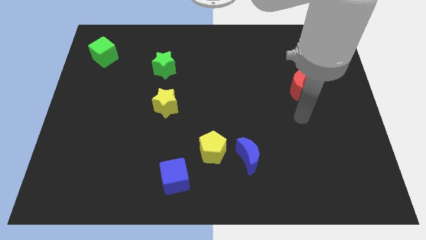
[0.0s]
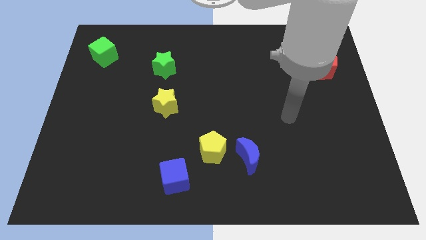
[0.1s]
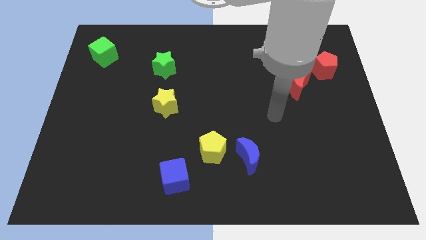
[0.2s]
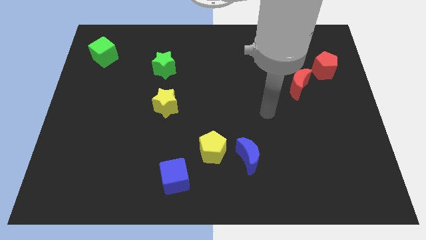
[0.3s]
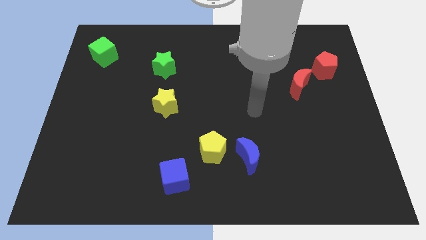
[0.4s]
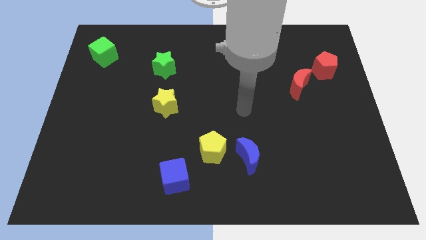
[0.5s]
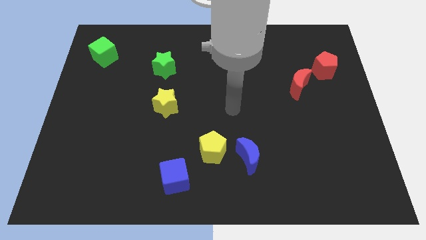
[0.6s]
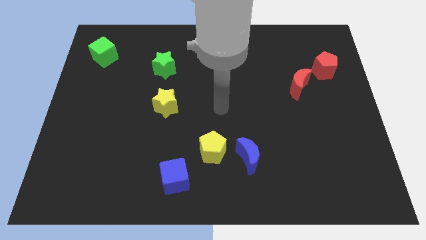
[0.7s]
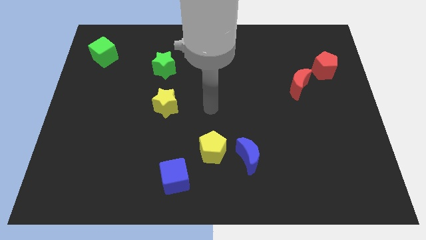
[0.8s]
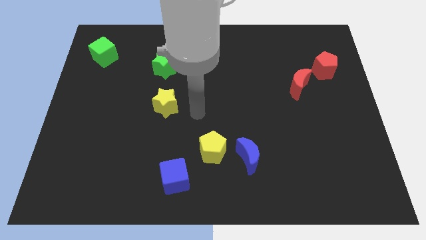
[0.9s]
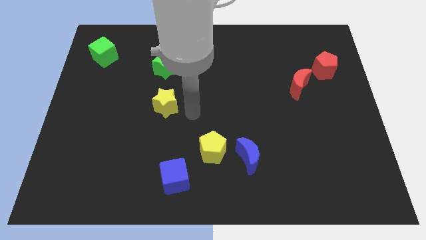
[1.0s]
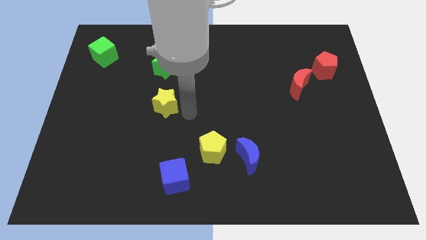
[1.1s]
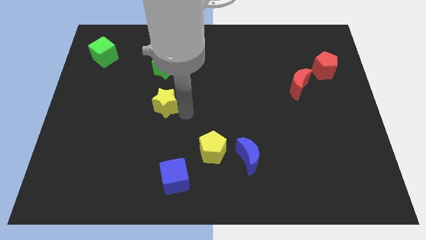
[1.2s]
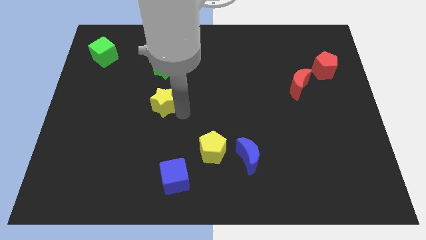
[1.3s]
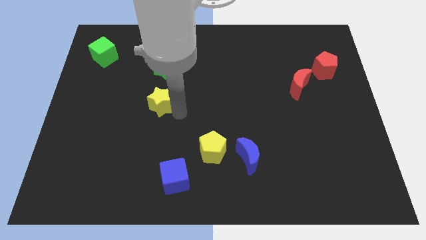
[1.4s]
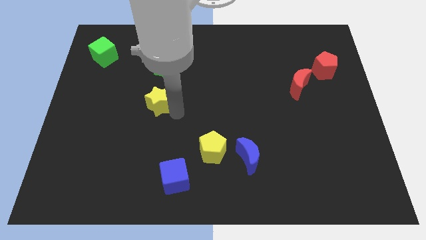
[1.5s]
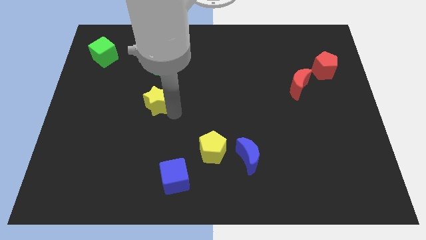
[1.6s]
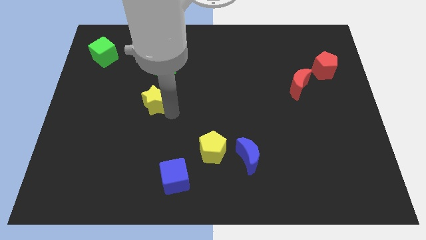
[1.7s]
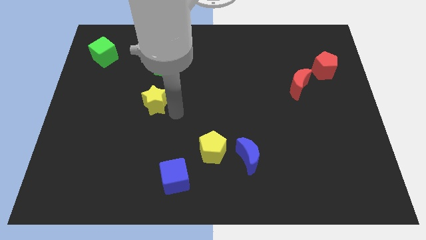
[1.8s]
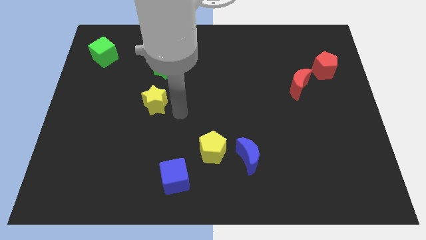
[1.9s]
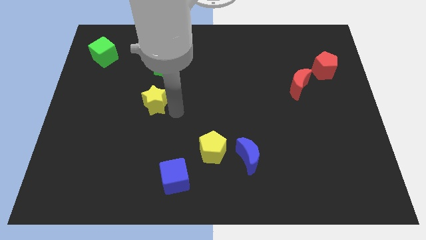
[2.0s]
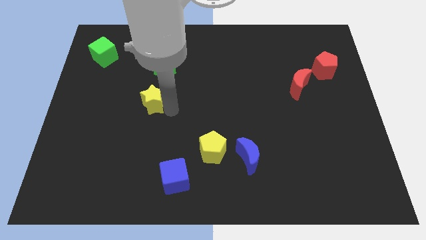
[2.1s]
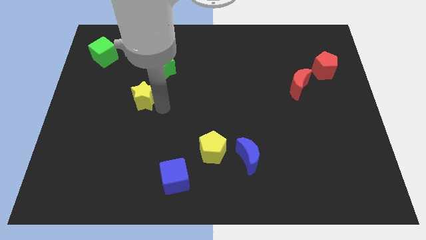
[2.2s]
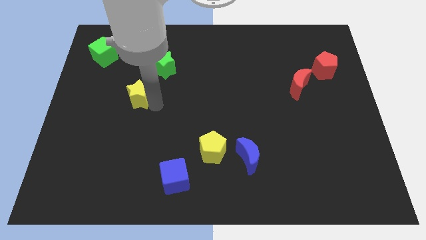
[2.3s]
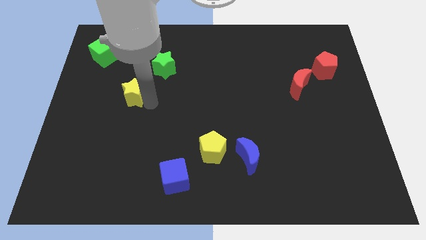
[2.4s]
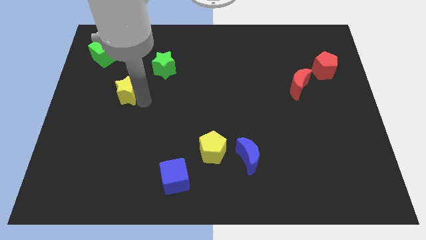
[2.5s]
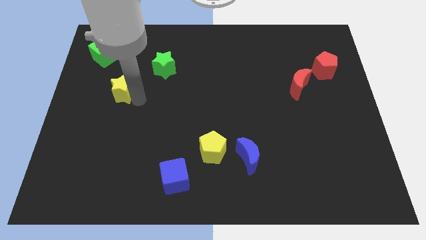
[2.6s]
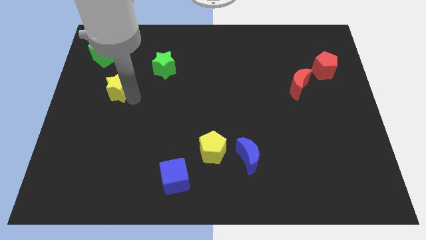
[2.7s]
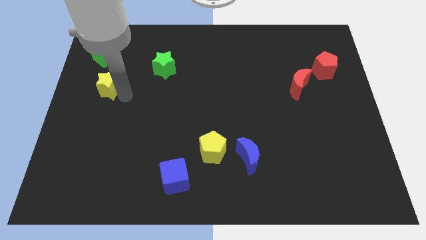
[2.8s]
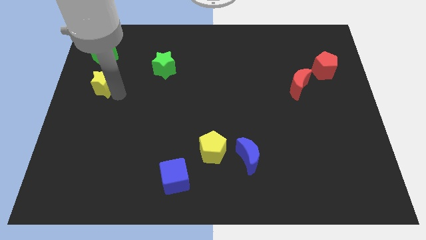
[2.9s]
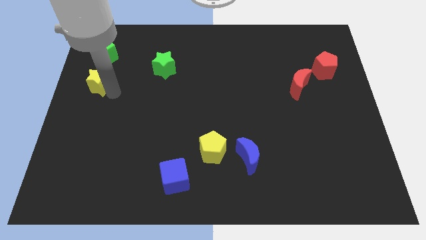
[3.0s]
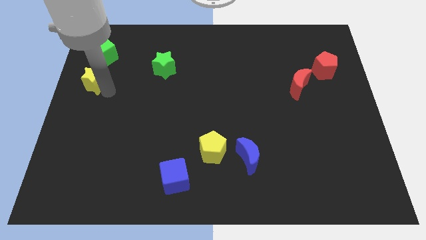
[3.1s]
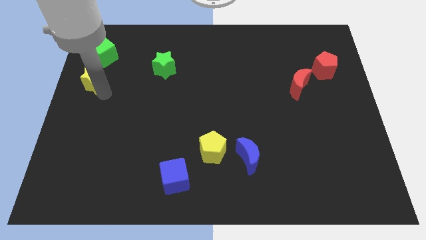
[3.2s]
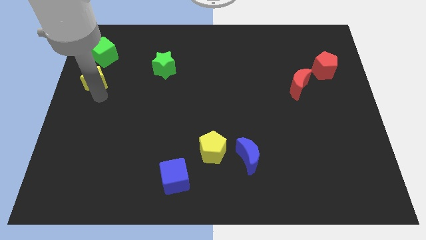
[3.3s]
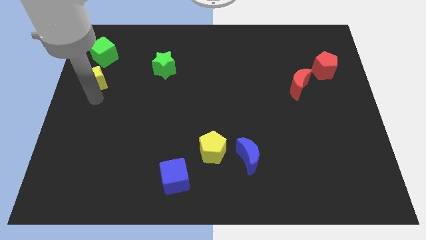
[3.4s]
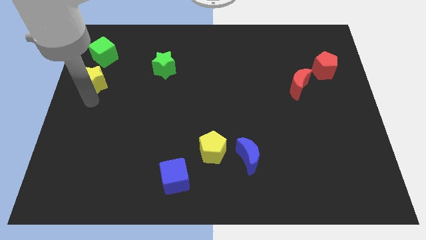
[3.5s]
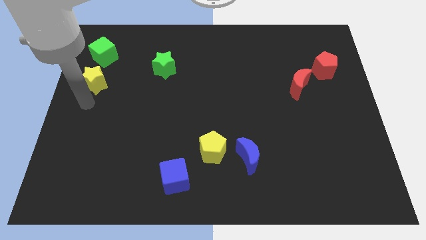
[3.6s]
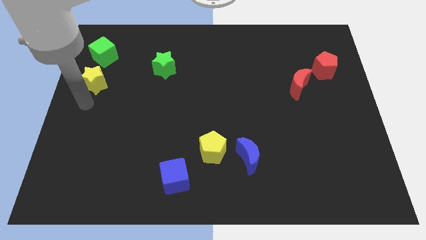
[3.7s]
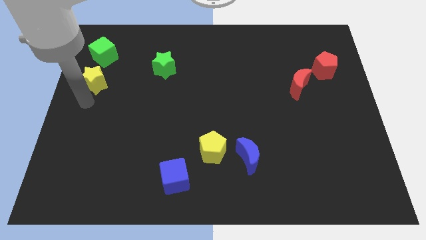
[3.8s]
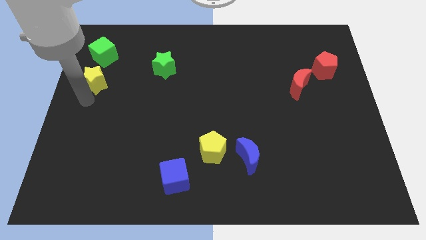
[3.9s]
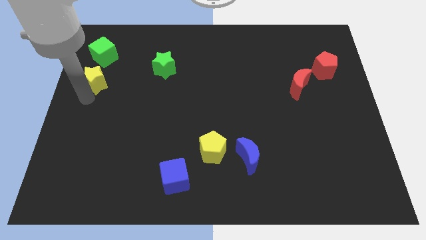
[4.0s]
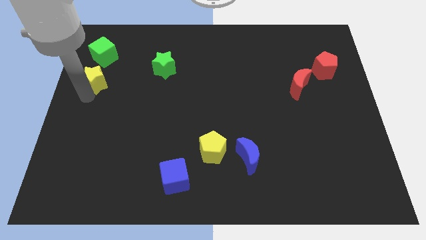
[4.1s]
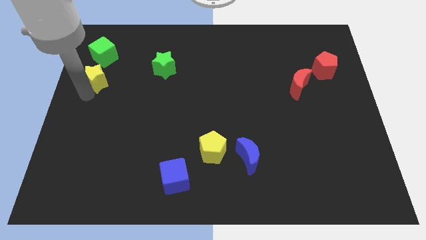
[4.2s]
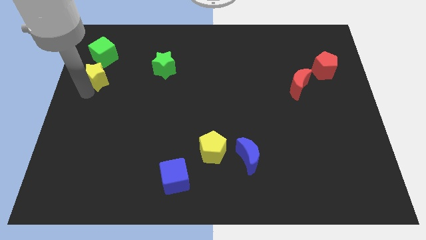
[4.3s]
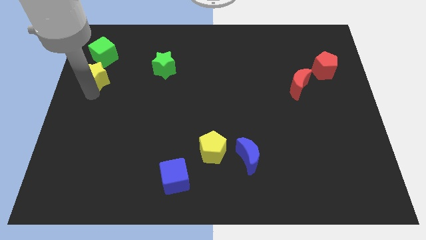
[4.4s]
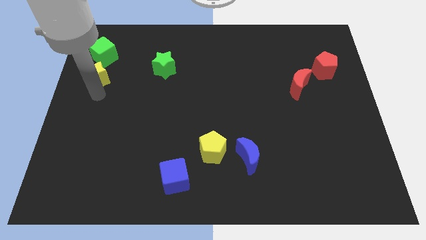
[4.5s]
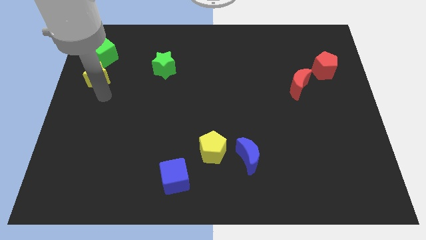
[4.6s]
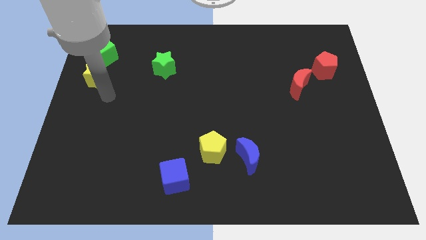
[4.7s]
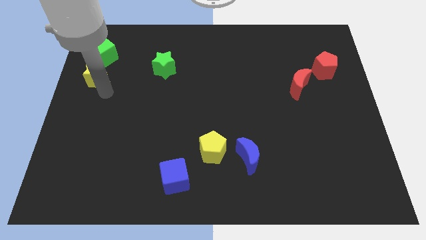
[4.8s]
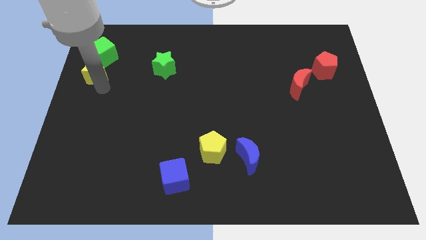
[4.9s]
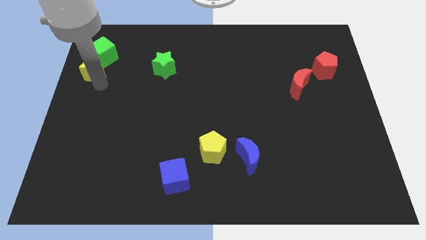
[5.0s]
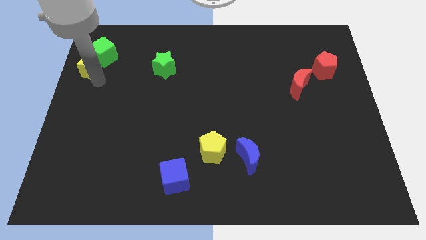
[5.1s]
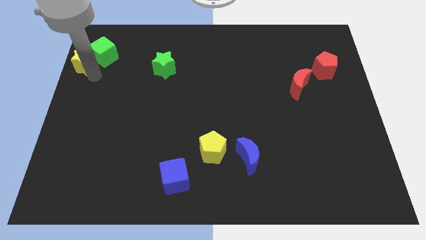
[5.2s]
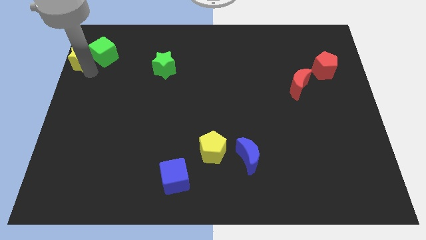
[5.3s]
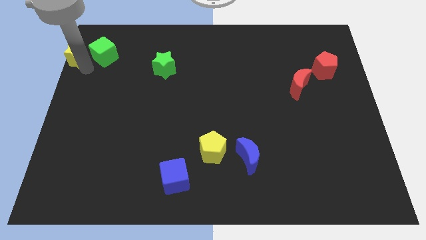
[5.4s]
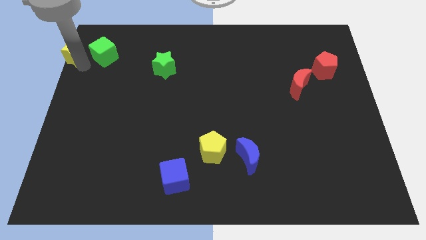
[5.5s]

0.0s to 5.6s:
move the yellow star to the upper left corner

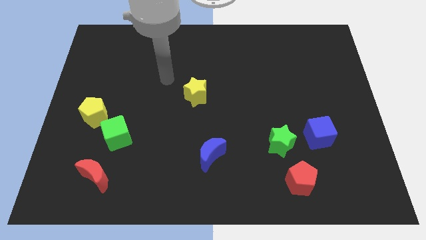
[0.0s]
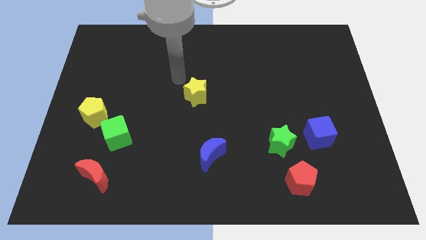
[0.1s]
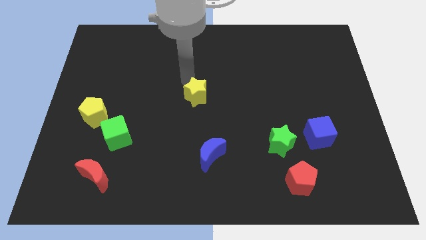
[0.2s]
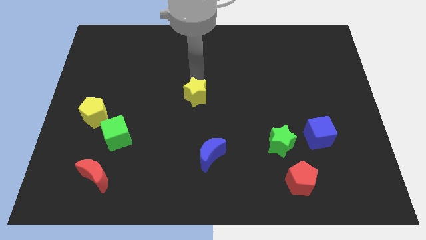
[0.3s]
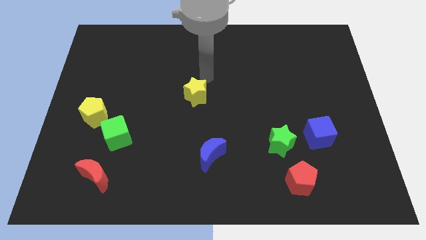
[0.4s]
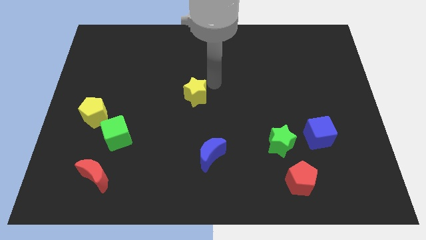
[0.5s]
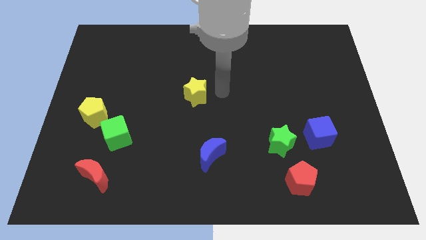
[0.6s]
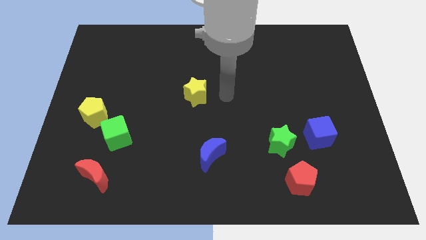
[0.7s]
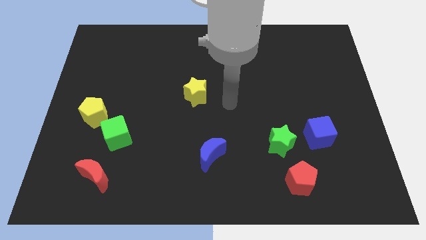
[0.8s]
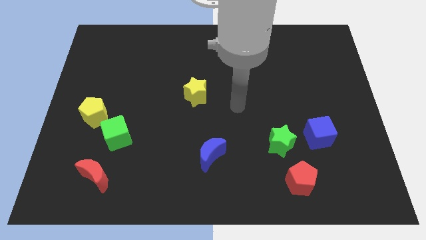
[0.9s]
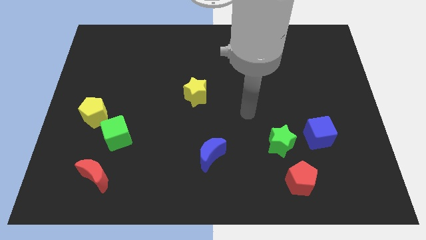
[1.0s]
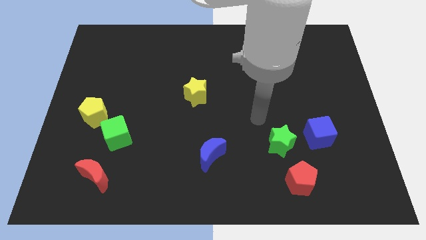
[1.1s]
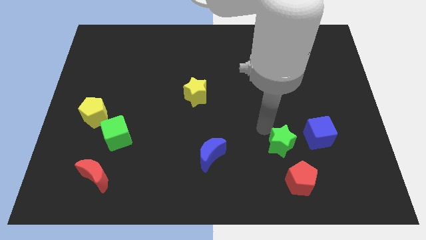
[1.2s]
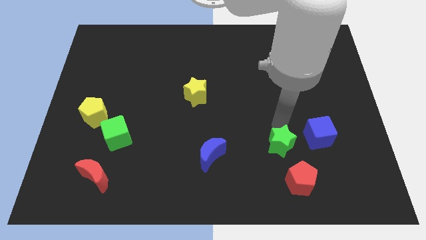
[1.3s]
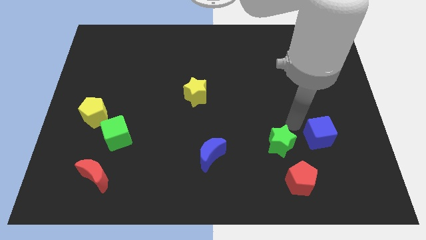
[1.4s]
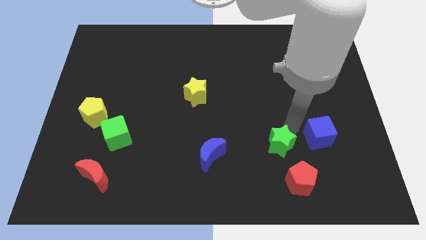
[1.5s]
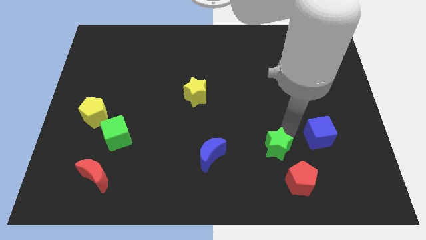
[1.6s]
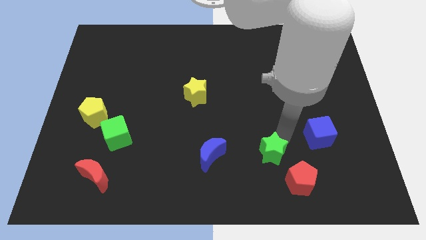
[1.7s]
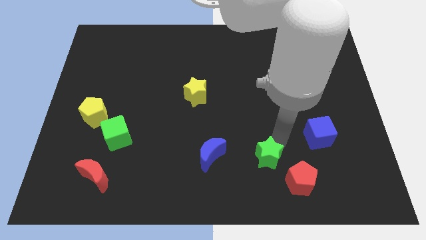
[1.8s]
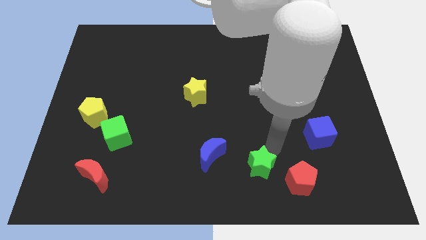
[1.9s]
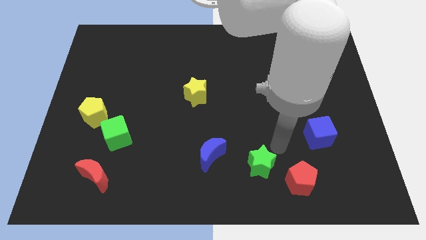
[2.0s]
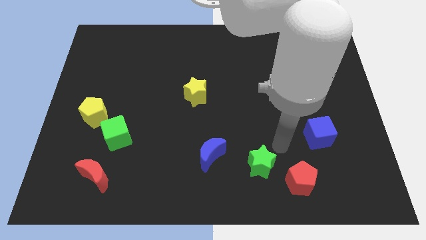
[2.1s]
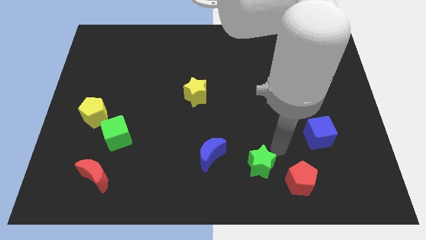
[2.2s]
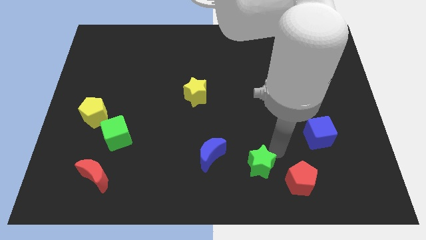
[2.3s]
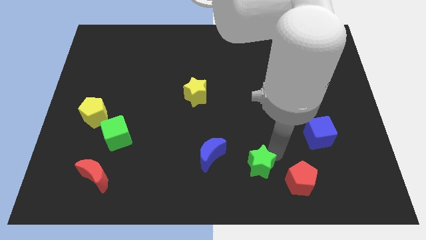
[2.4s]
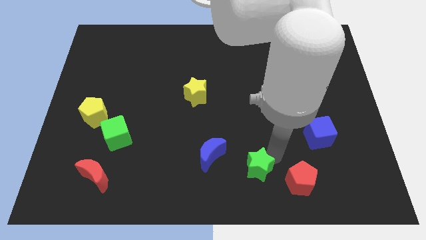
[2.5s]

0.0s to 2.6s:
move the green star to the bottom
